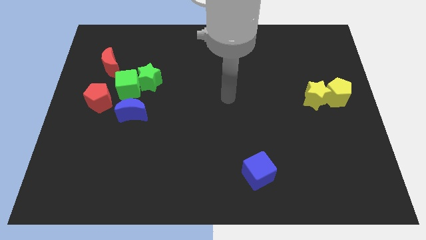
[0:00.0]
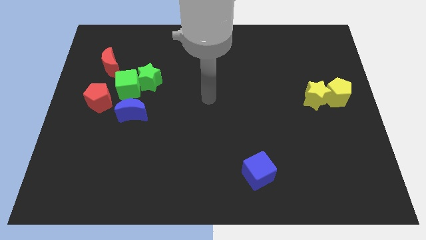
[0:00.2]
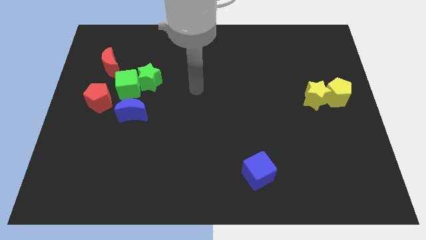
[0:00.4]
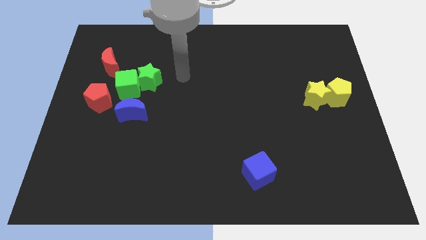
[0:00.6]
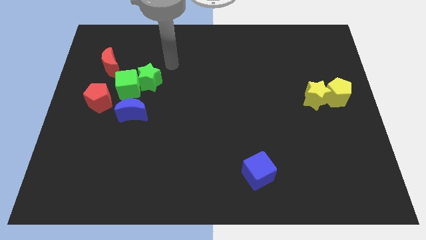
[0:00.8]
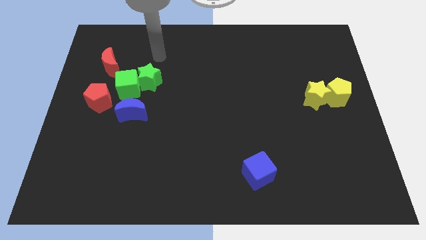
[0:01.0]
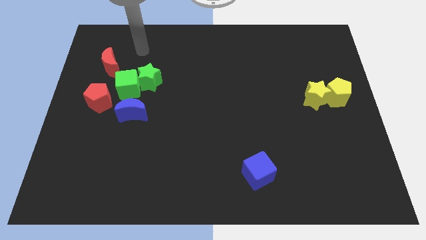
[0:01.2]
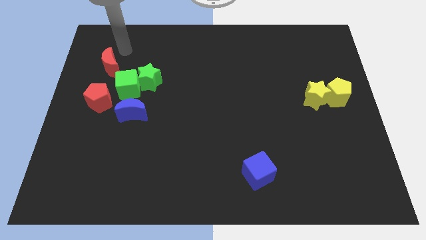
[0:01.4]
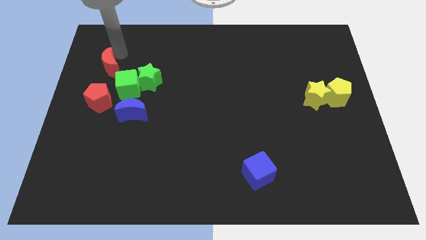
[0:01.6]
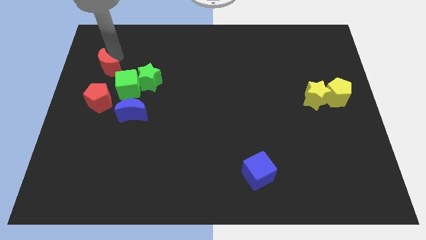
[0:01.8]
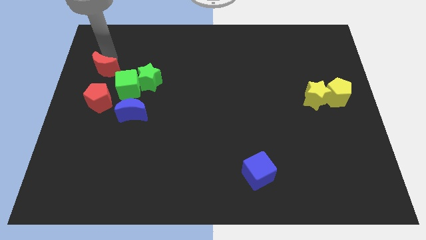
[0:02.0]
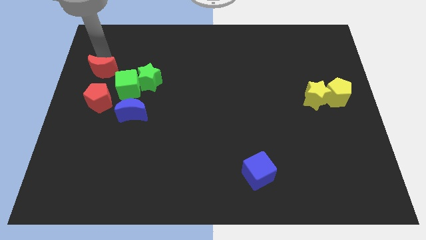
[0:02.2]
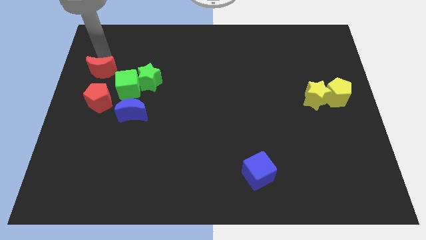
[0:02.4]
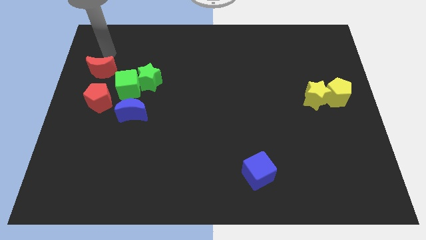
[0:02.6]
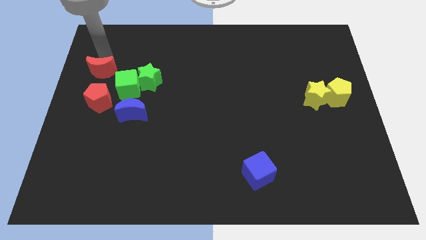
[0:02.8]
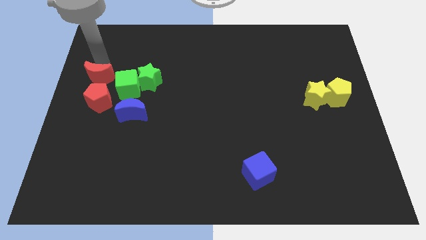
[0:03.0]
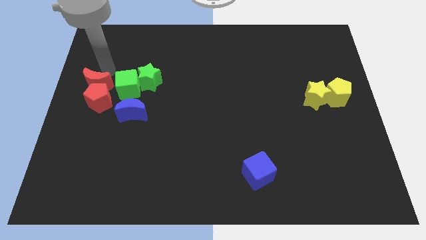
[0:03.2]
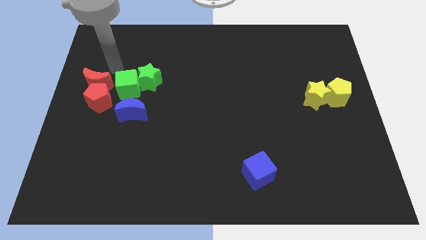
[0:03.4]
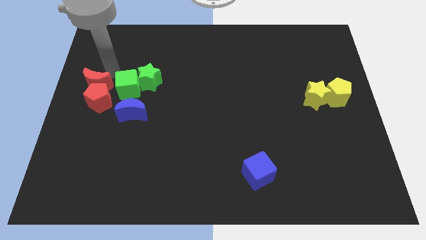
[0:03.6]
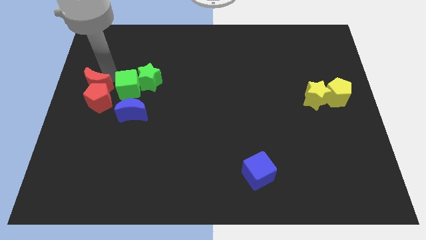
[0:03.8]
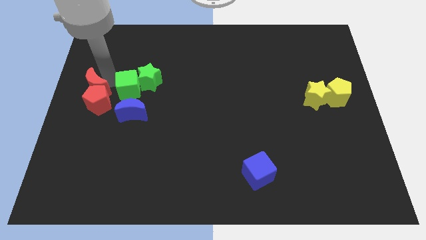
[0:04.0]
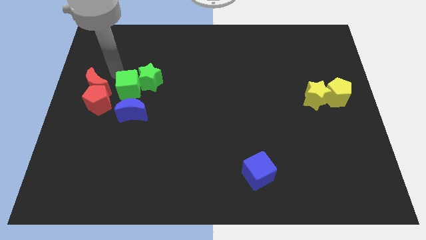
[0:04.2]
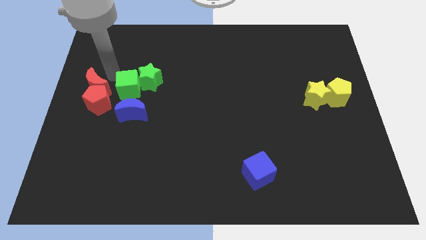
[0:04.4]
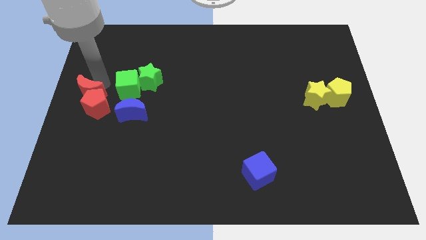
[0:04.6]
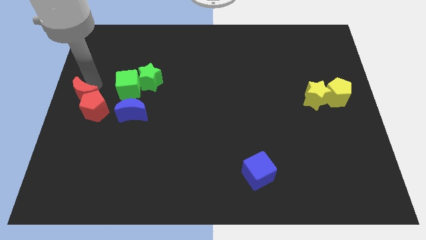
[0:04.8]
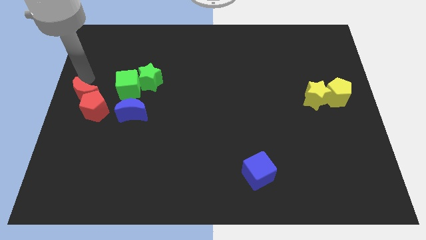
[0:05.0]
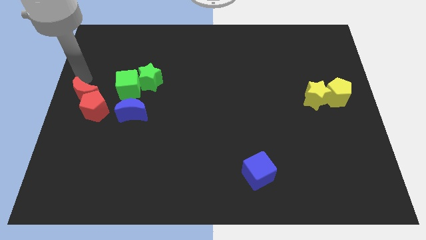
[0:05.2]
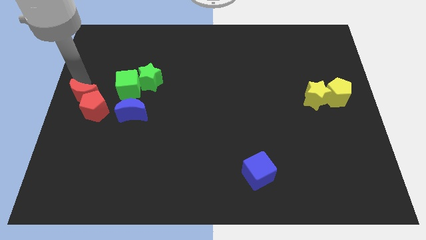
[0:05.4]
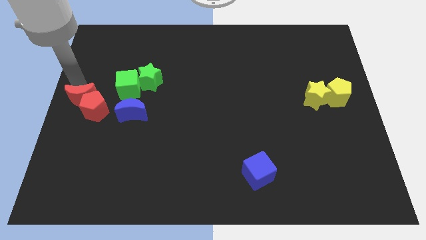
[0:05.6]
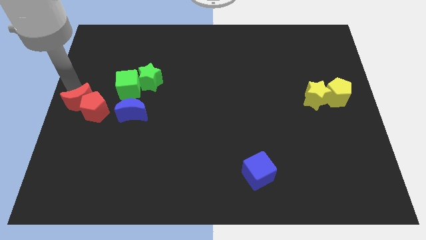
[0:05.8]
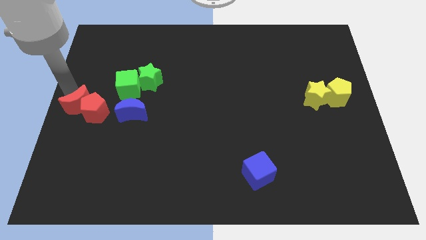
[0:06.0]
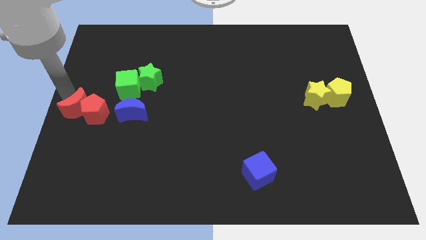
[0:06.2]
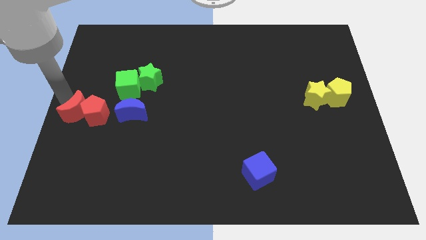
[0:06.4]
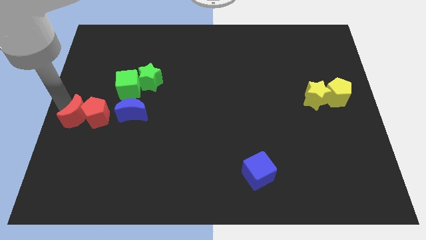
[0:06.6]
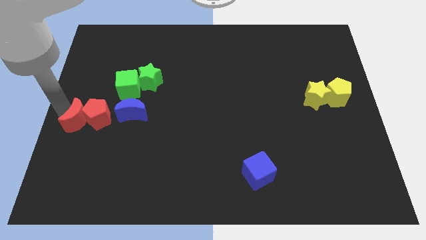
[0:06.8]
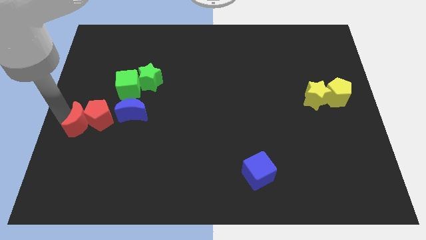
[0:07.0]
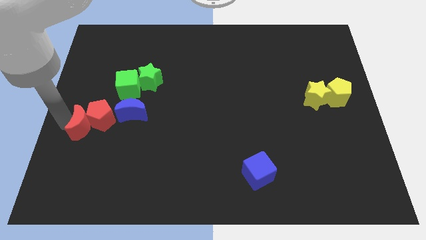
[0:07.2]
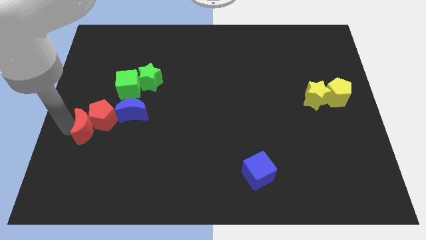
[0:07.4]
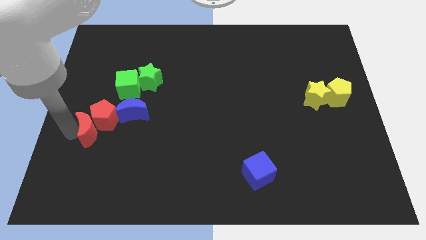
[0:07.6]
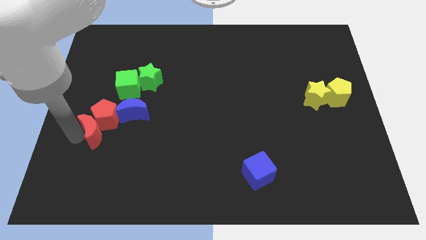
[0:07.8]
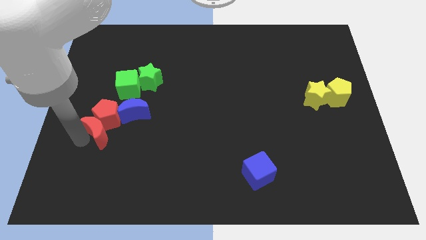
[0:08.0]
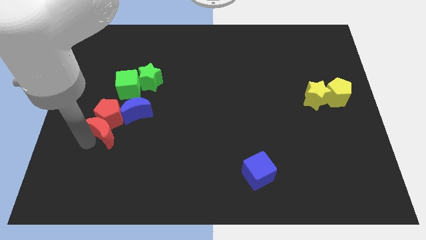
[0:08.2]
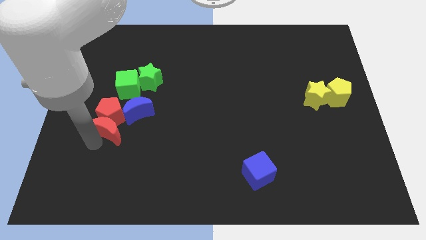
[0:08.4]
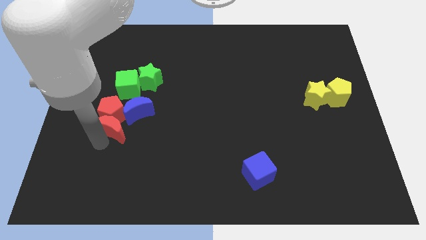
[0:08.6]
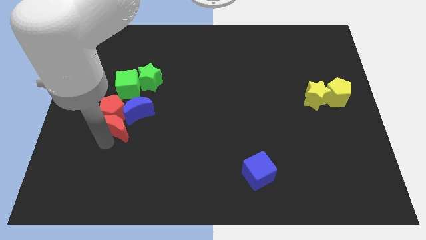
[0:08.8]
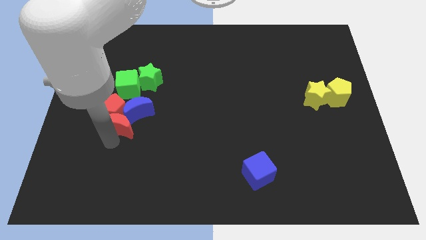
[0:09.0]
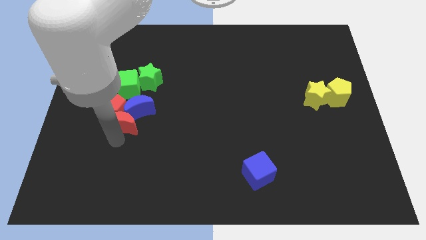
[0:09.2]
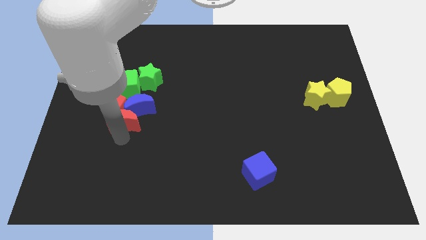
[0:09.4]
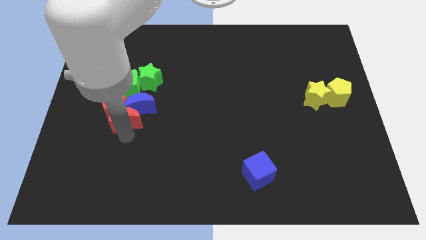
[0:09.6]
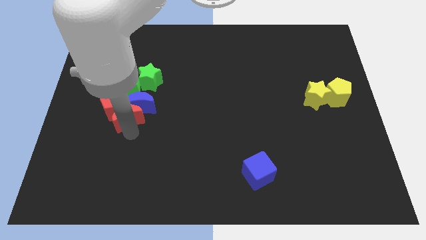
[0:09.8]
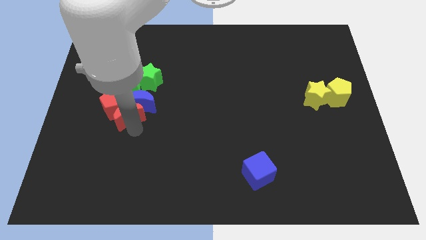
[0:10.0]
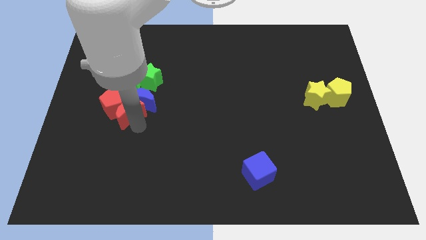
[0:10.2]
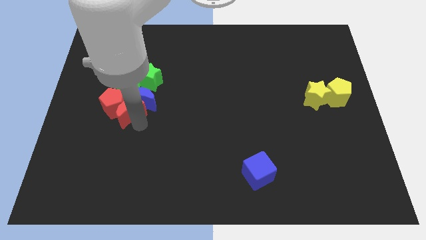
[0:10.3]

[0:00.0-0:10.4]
move the red moon to the bottom left side of the green star

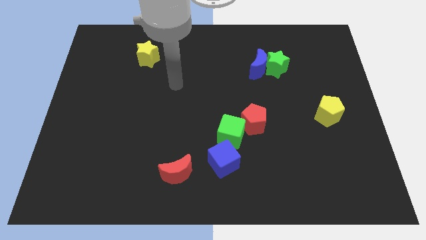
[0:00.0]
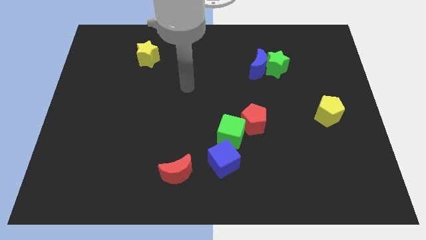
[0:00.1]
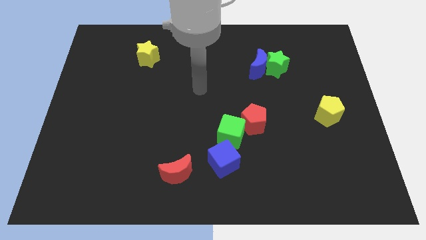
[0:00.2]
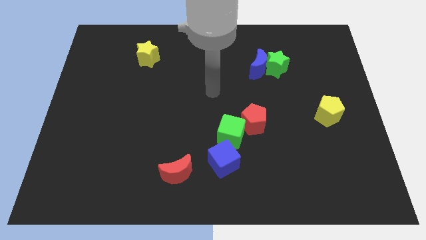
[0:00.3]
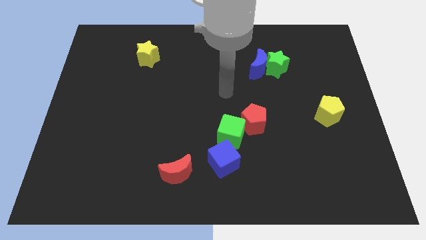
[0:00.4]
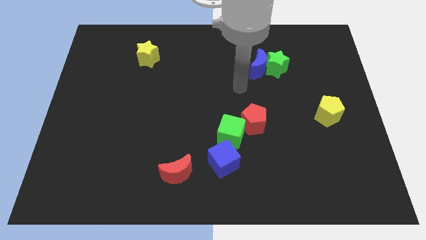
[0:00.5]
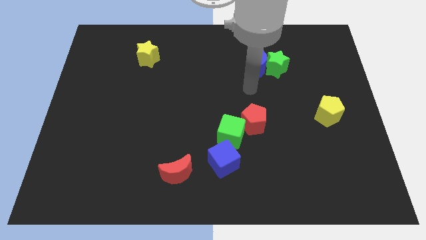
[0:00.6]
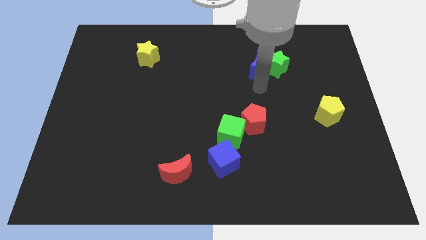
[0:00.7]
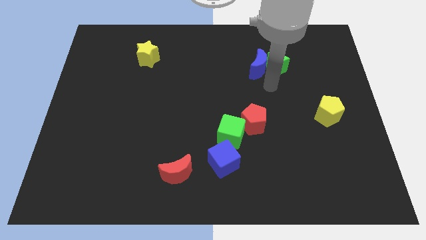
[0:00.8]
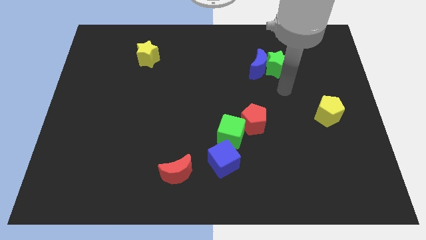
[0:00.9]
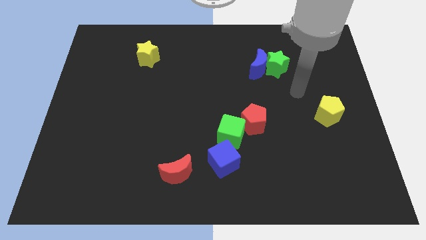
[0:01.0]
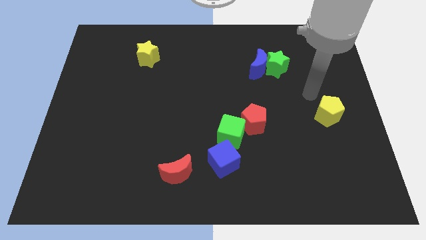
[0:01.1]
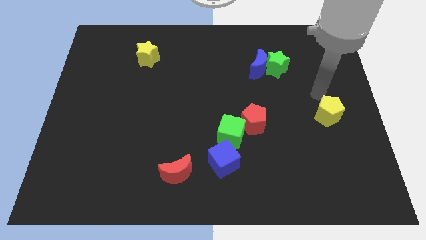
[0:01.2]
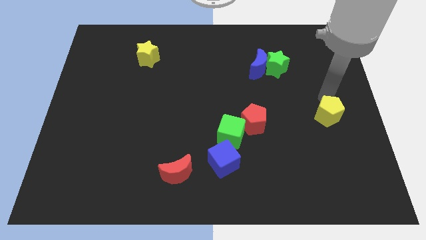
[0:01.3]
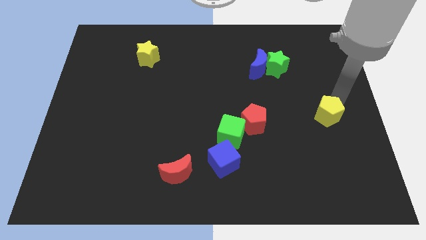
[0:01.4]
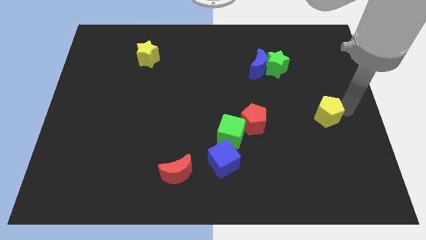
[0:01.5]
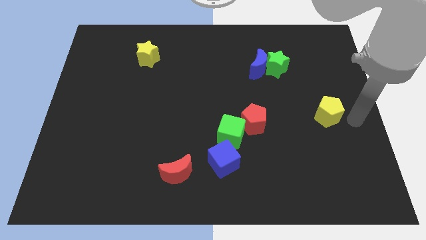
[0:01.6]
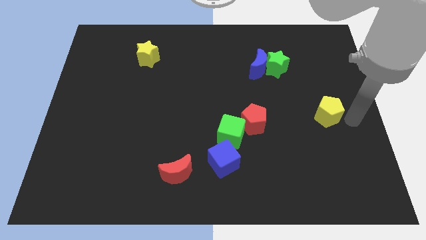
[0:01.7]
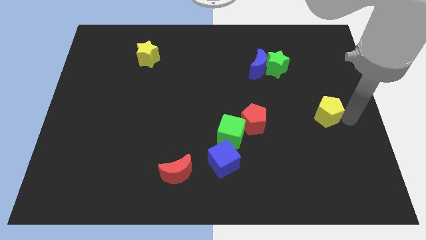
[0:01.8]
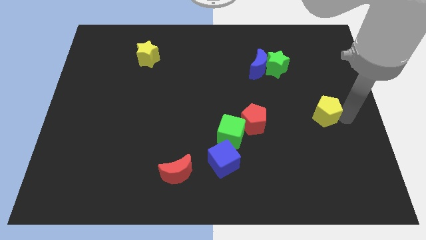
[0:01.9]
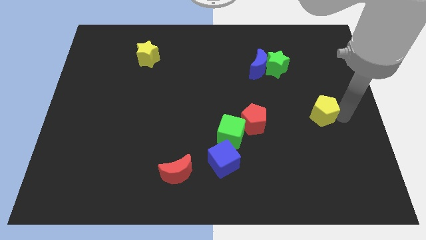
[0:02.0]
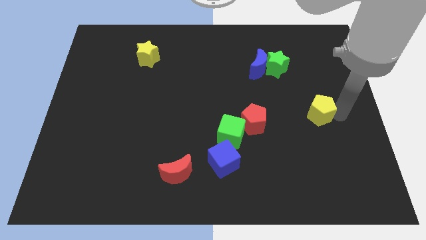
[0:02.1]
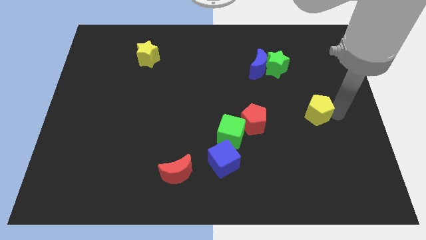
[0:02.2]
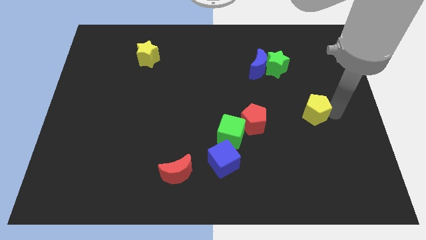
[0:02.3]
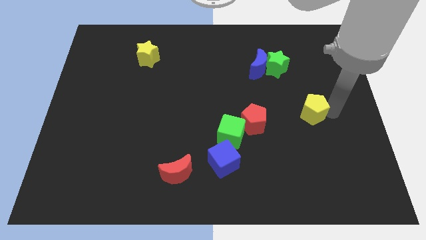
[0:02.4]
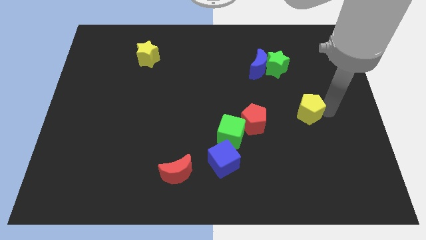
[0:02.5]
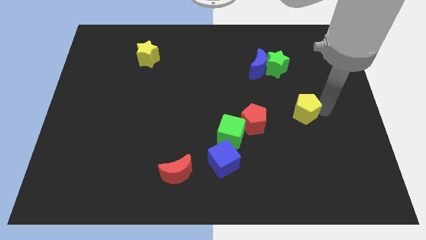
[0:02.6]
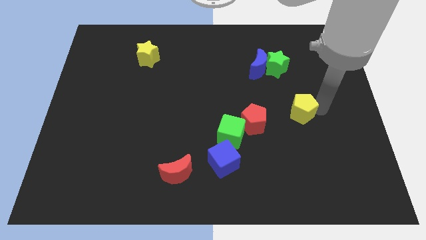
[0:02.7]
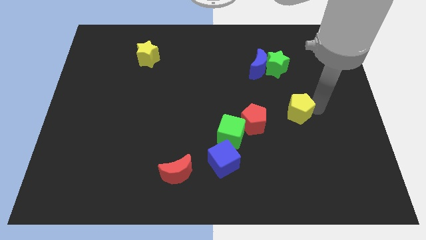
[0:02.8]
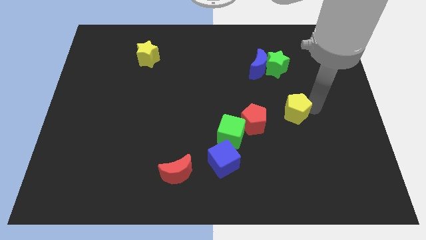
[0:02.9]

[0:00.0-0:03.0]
push the yellow pentagon to the top right side of the red pentagon
